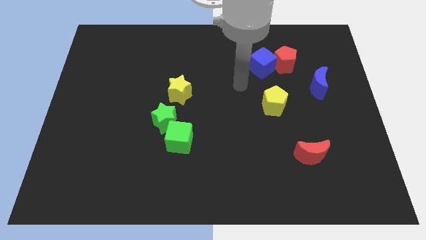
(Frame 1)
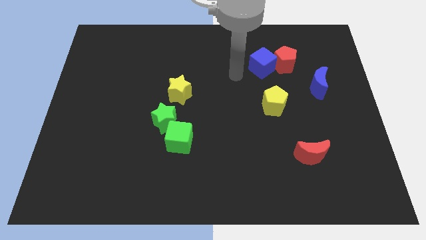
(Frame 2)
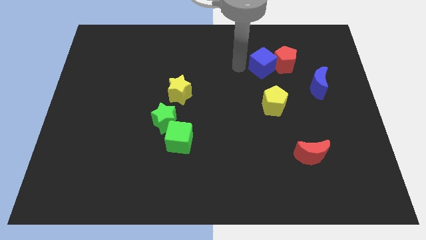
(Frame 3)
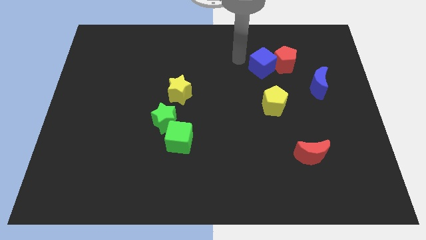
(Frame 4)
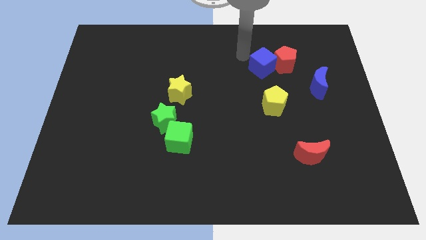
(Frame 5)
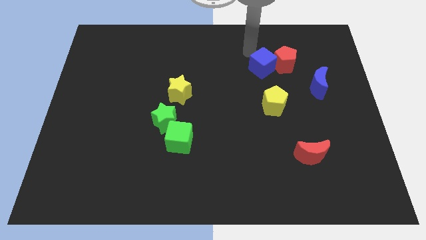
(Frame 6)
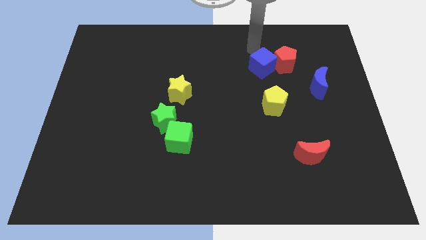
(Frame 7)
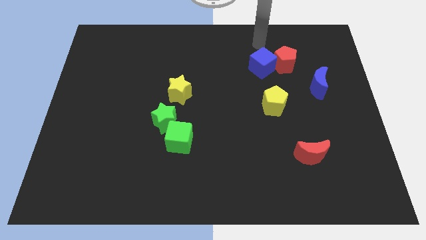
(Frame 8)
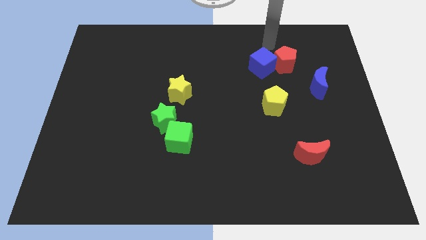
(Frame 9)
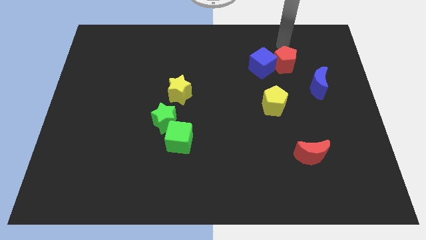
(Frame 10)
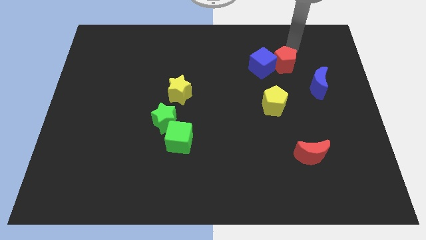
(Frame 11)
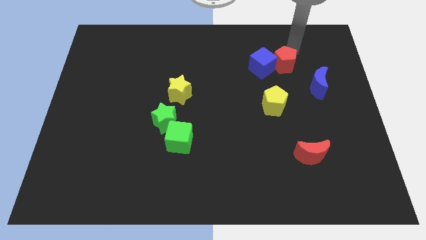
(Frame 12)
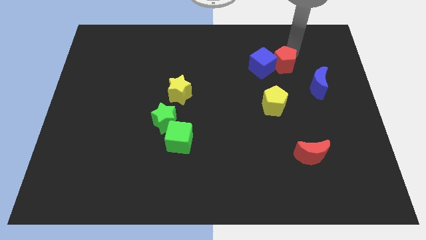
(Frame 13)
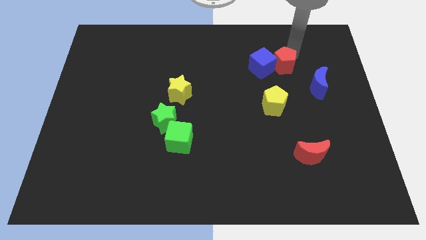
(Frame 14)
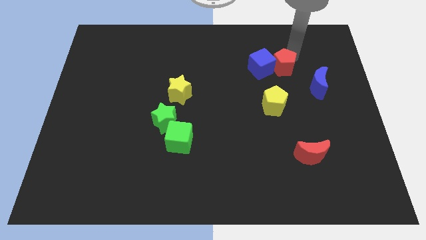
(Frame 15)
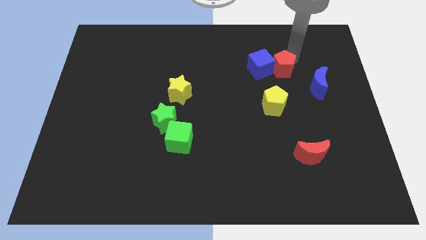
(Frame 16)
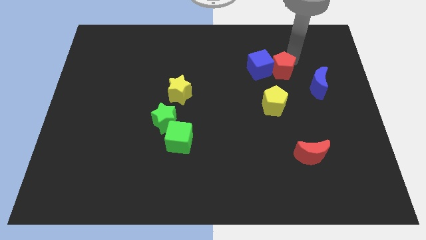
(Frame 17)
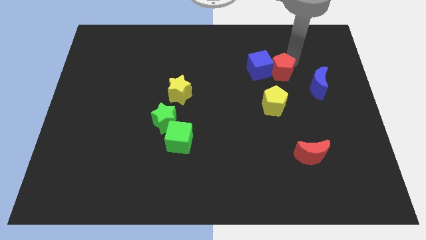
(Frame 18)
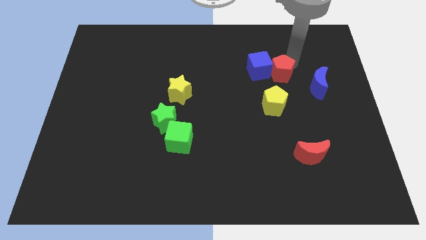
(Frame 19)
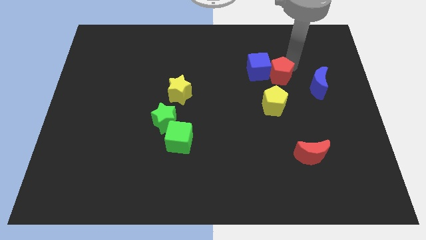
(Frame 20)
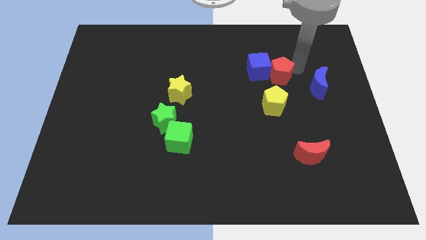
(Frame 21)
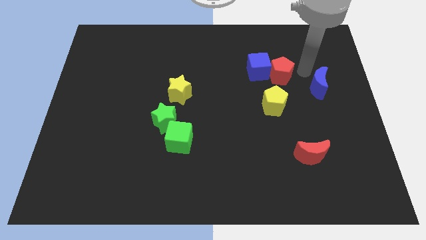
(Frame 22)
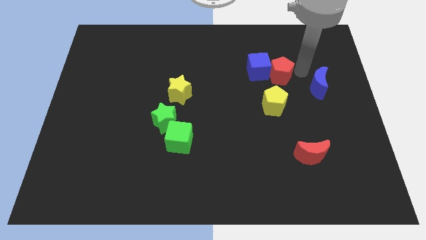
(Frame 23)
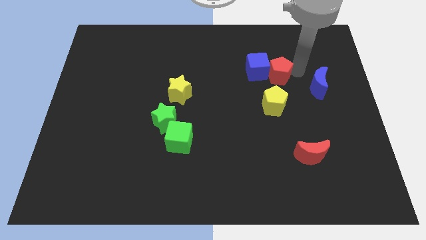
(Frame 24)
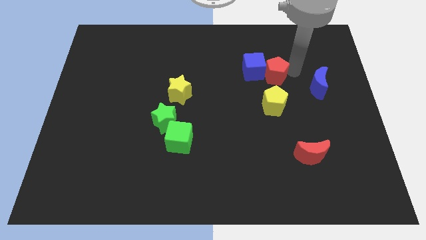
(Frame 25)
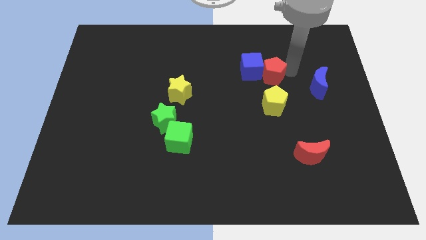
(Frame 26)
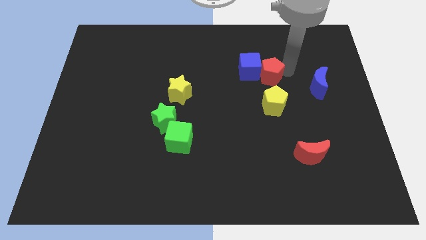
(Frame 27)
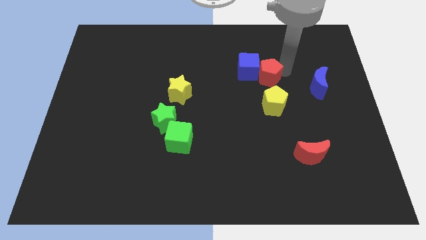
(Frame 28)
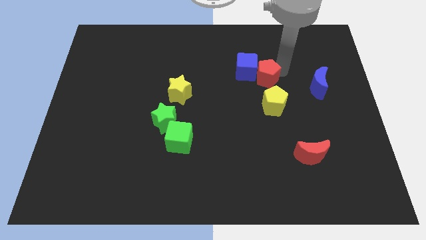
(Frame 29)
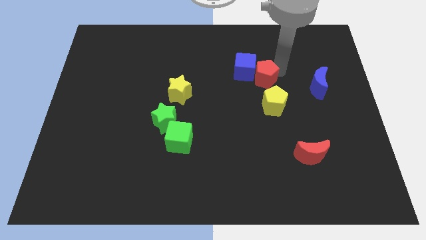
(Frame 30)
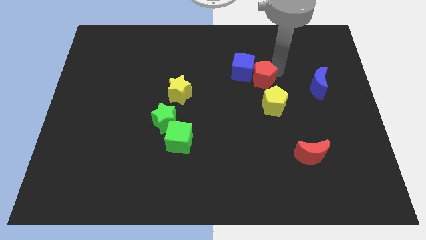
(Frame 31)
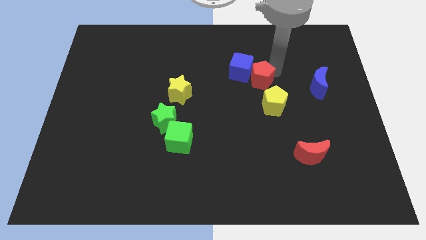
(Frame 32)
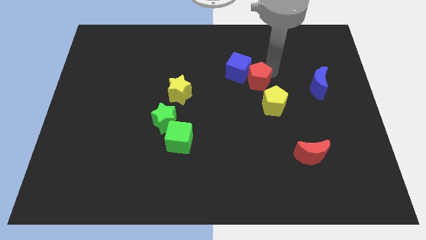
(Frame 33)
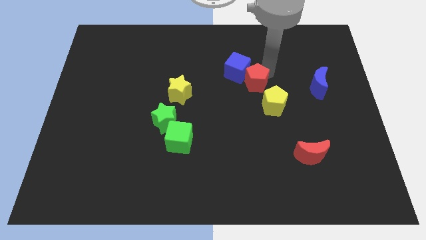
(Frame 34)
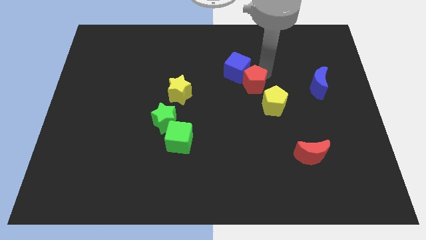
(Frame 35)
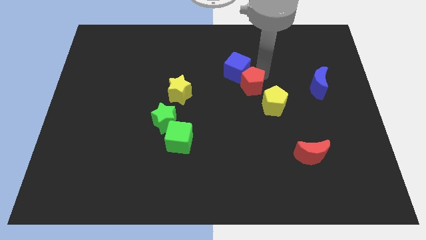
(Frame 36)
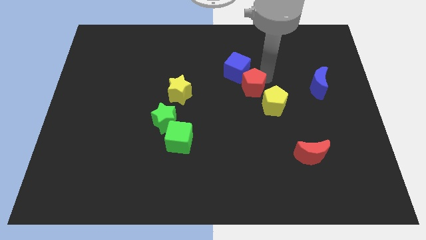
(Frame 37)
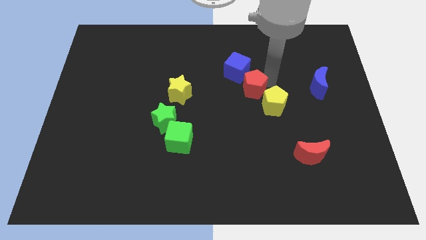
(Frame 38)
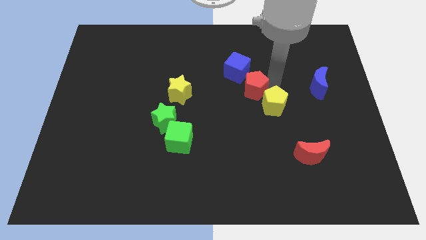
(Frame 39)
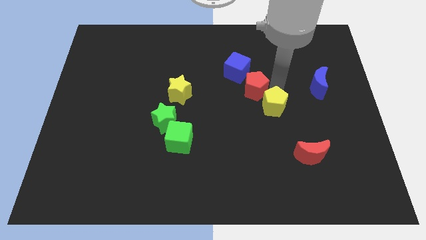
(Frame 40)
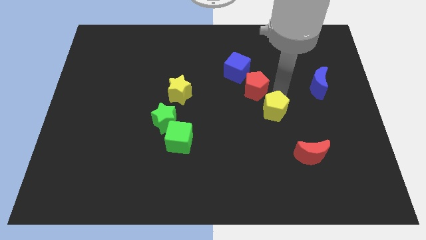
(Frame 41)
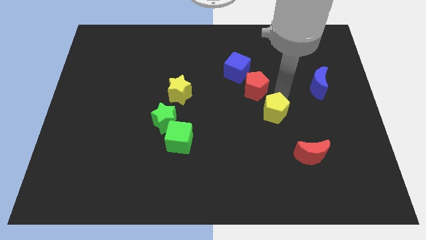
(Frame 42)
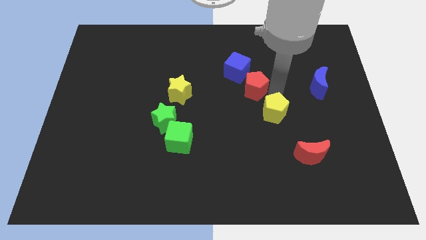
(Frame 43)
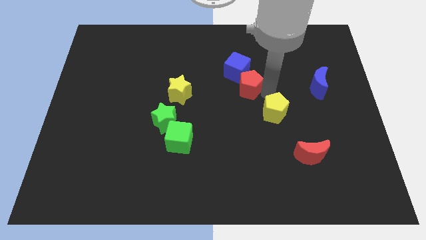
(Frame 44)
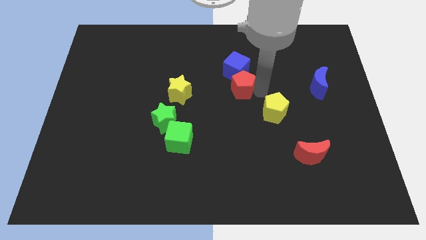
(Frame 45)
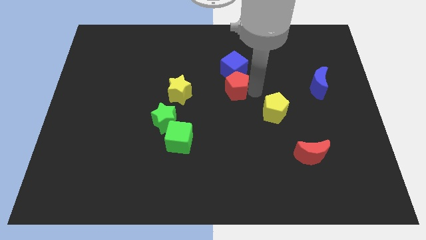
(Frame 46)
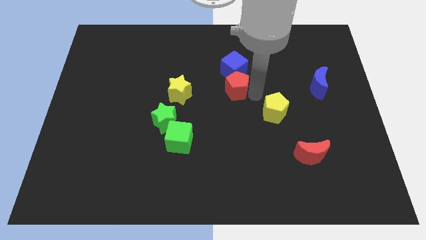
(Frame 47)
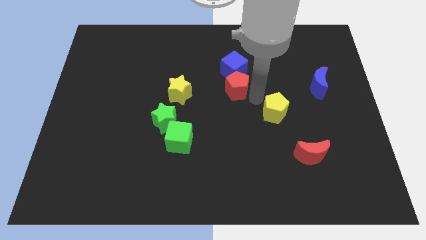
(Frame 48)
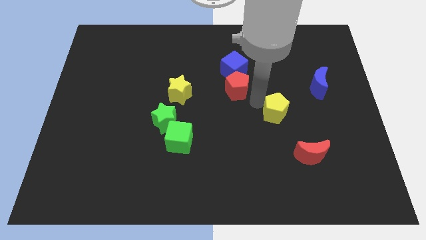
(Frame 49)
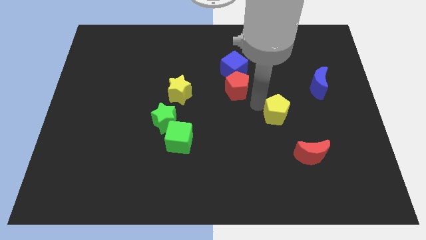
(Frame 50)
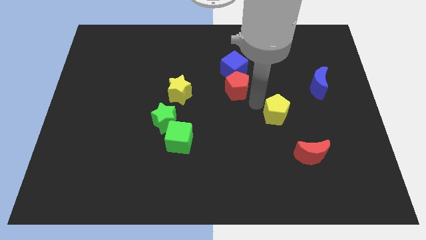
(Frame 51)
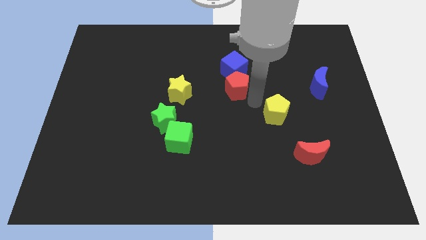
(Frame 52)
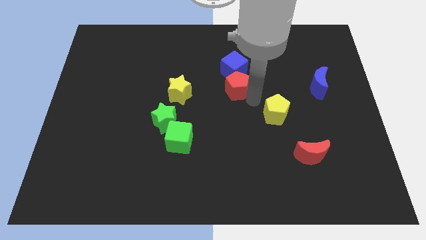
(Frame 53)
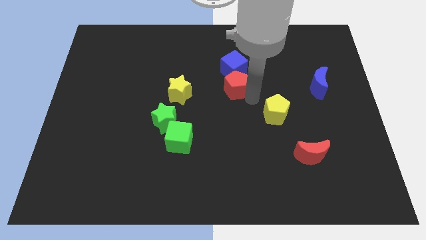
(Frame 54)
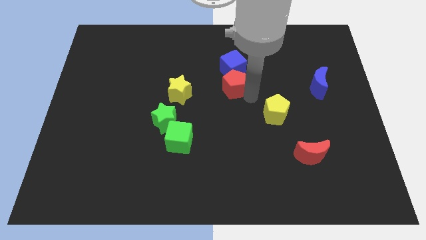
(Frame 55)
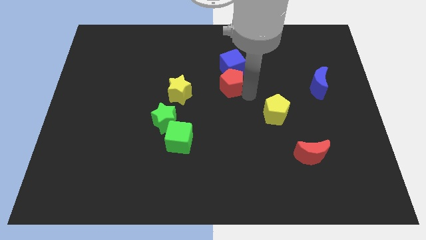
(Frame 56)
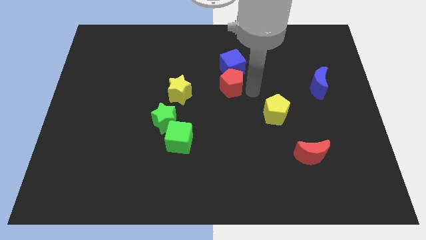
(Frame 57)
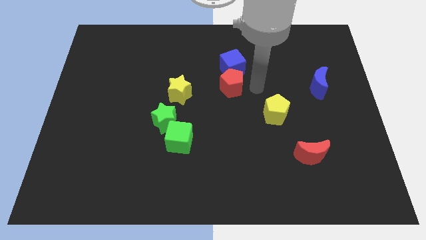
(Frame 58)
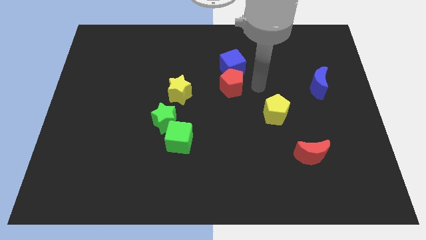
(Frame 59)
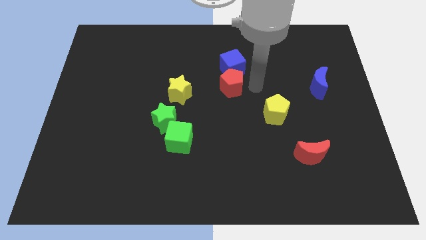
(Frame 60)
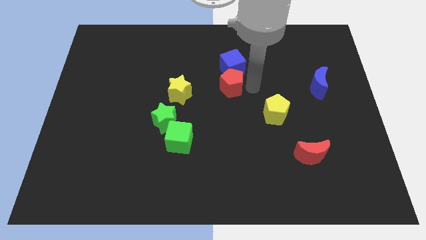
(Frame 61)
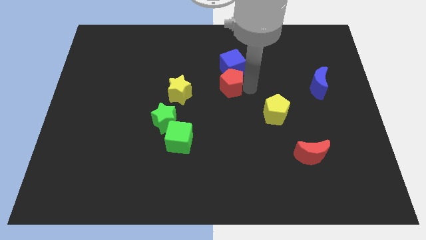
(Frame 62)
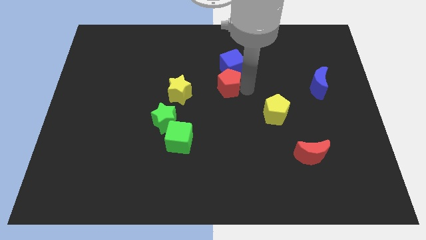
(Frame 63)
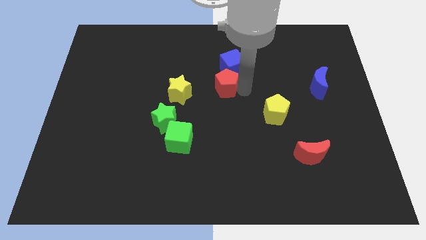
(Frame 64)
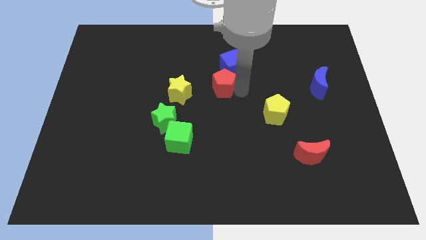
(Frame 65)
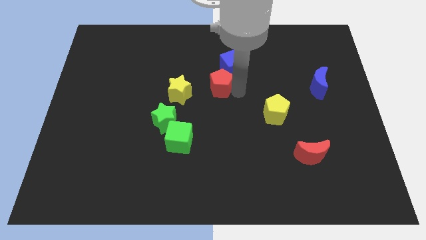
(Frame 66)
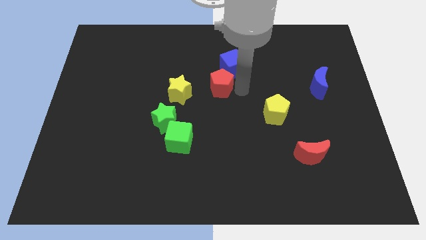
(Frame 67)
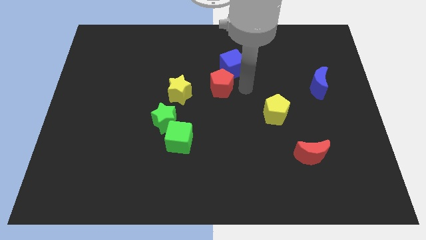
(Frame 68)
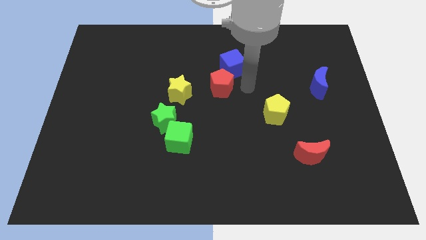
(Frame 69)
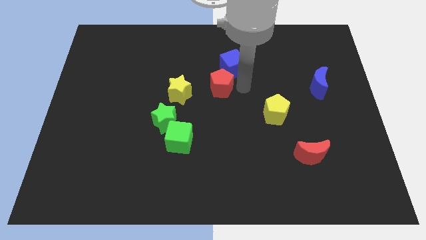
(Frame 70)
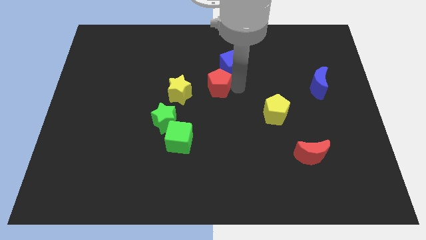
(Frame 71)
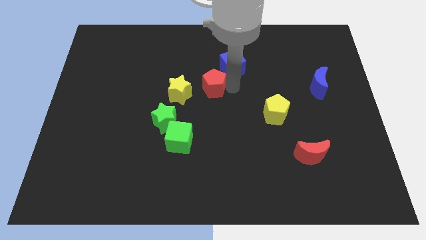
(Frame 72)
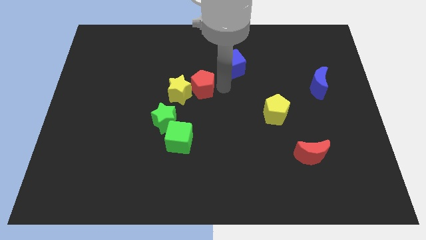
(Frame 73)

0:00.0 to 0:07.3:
move the red pentagon close to the yellow star
